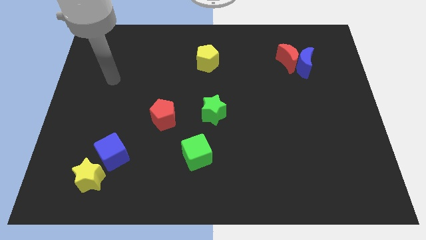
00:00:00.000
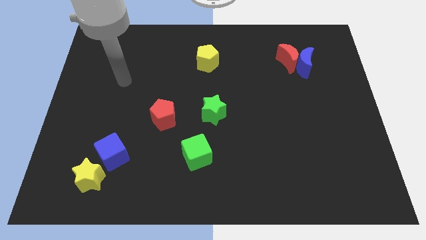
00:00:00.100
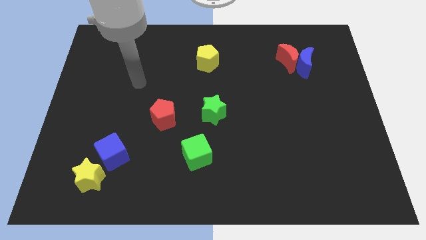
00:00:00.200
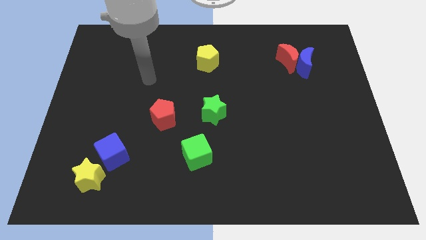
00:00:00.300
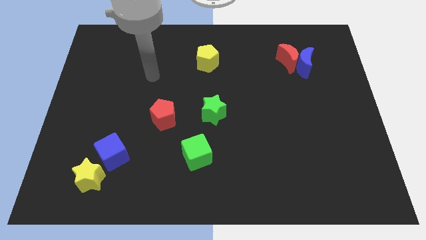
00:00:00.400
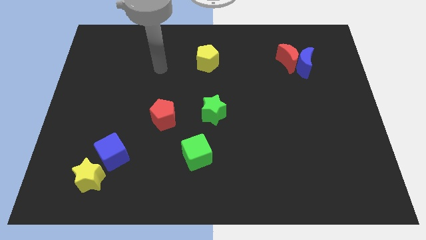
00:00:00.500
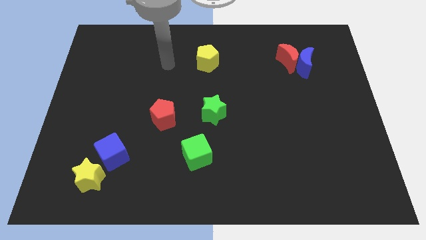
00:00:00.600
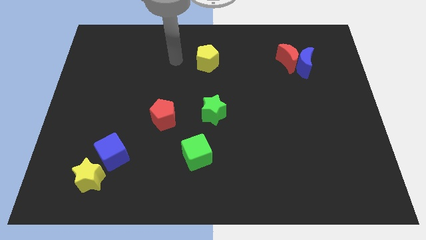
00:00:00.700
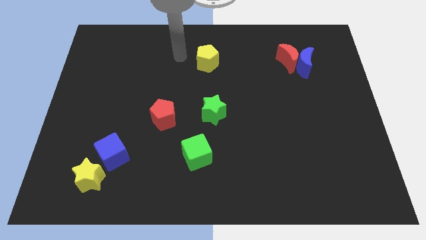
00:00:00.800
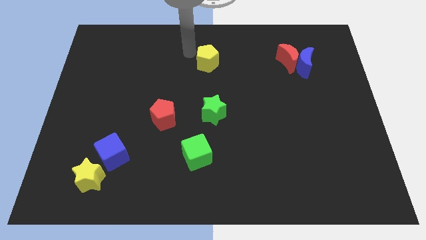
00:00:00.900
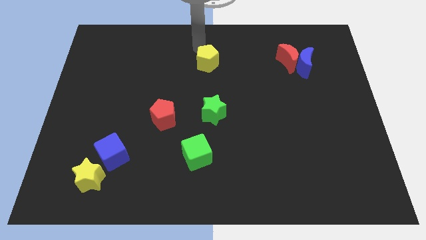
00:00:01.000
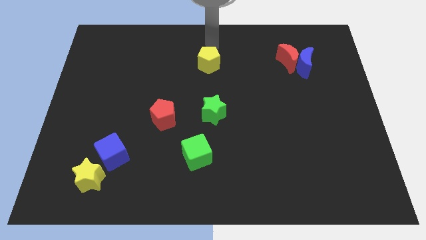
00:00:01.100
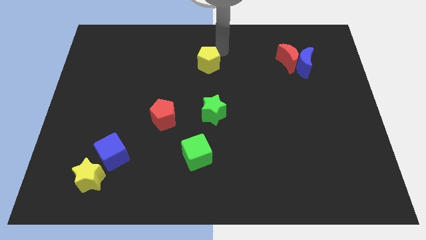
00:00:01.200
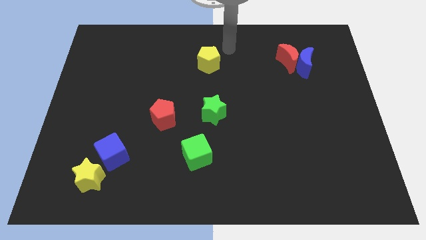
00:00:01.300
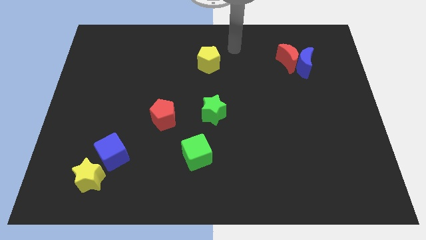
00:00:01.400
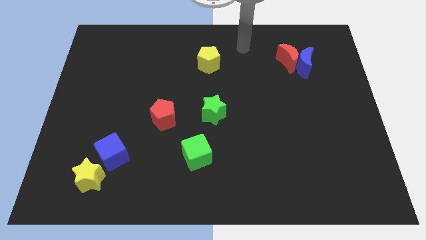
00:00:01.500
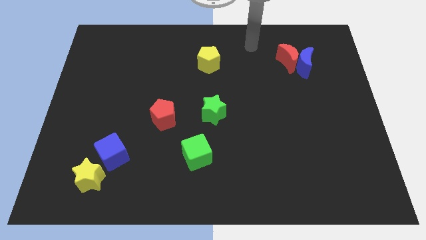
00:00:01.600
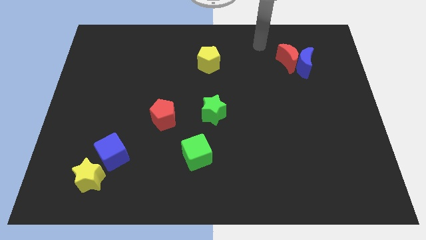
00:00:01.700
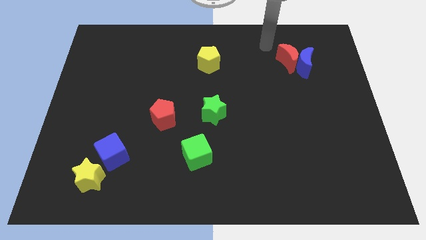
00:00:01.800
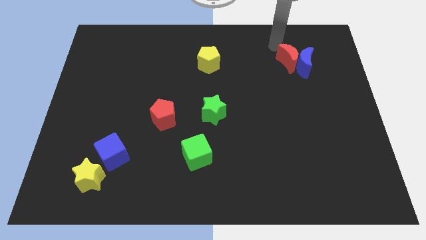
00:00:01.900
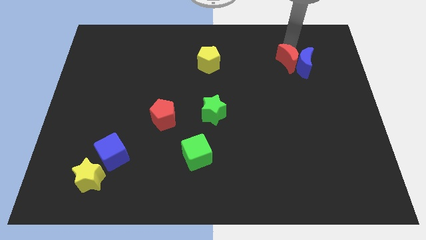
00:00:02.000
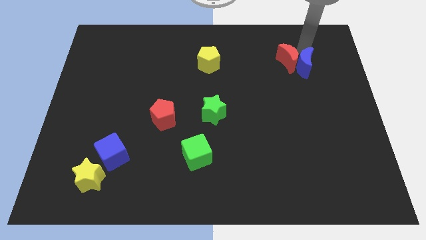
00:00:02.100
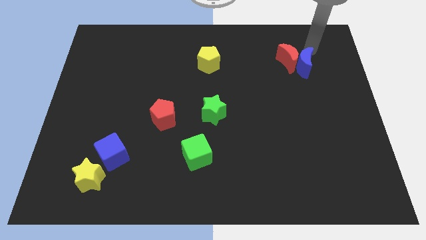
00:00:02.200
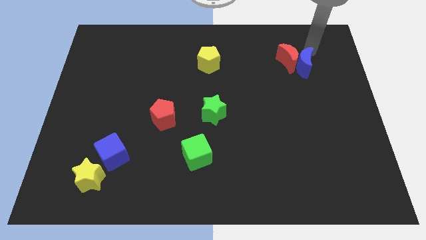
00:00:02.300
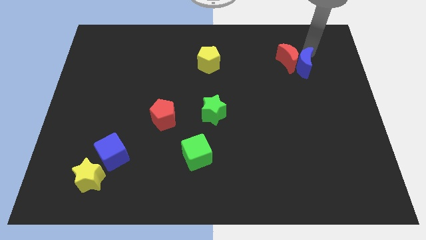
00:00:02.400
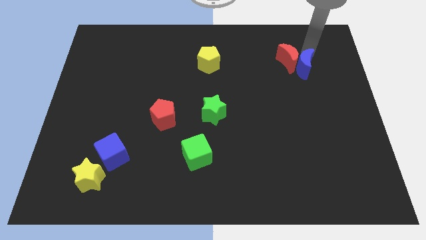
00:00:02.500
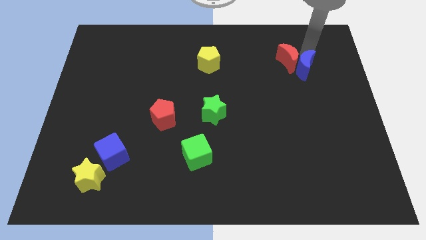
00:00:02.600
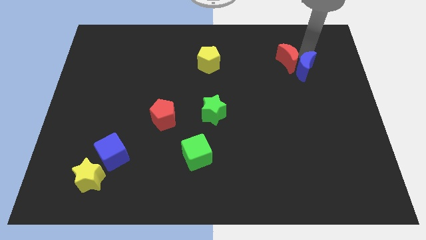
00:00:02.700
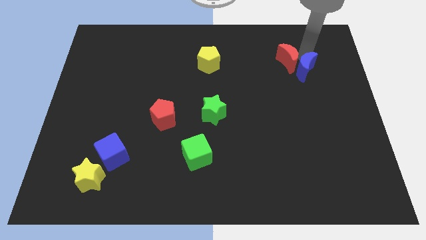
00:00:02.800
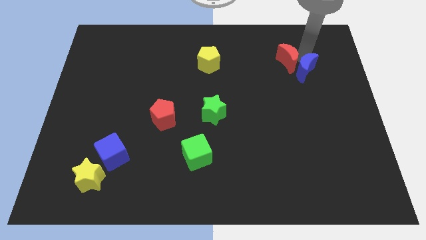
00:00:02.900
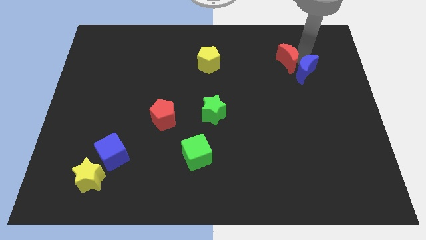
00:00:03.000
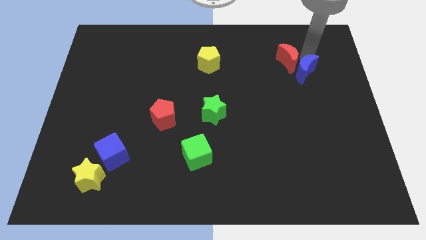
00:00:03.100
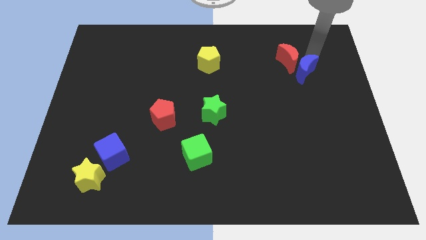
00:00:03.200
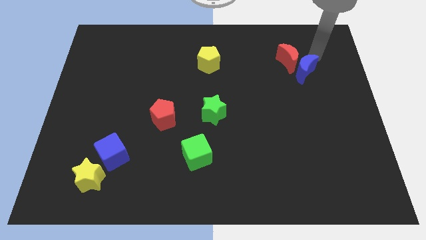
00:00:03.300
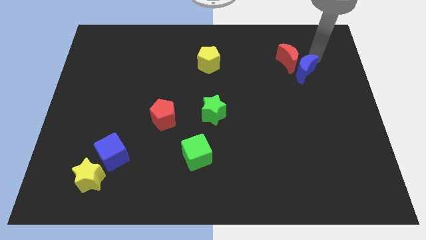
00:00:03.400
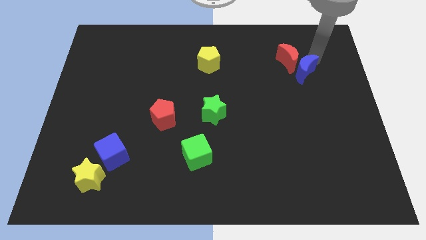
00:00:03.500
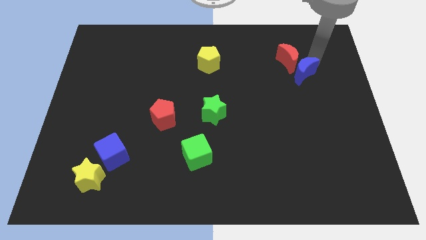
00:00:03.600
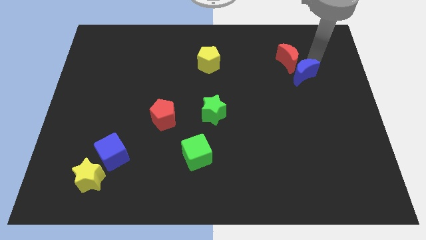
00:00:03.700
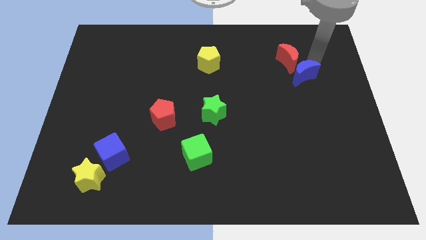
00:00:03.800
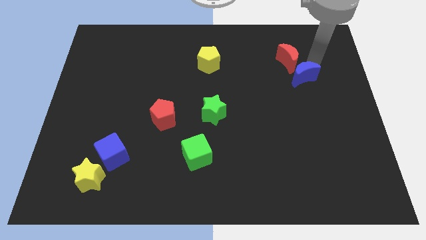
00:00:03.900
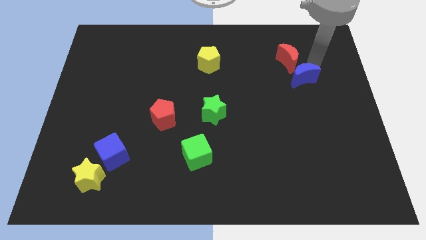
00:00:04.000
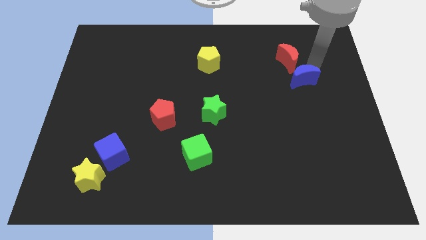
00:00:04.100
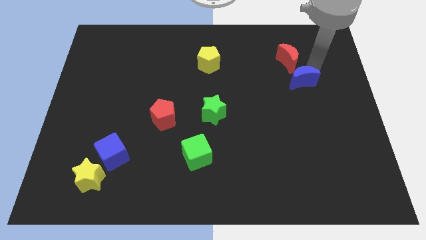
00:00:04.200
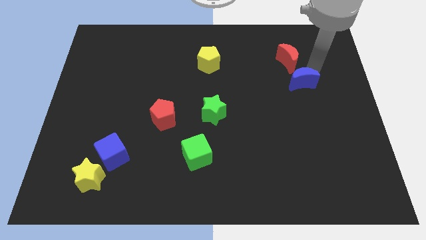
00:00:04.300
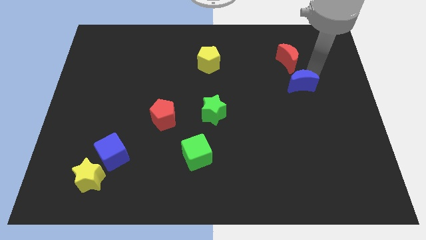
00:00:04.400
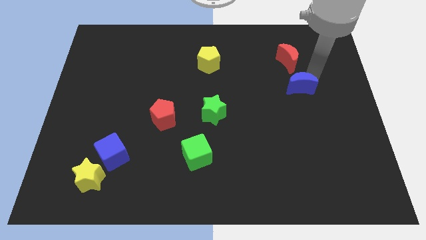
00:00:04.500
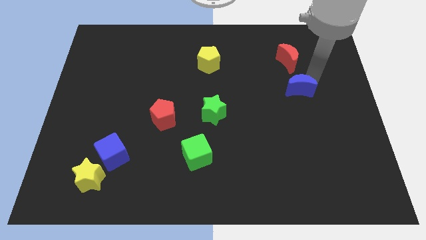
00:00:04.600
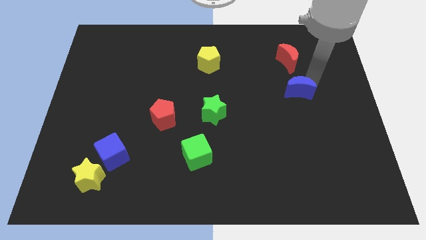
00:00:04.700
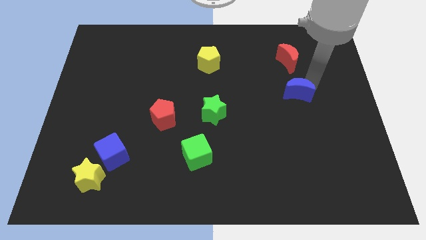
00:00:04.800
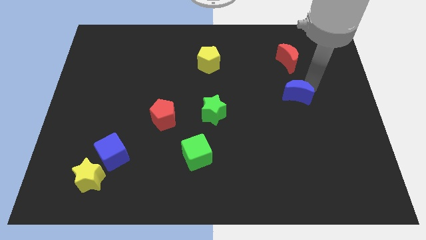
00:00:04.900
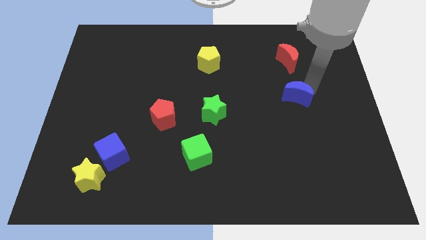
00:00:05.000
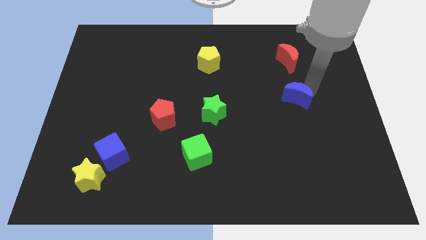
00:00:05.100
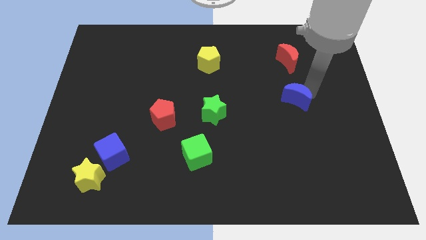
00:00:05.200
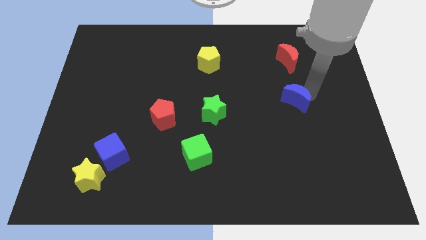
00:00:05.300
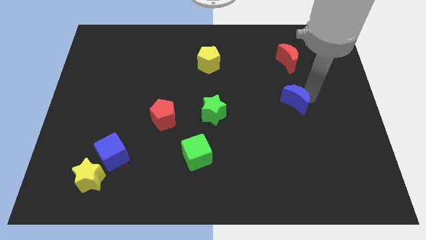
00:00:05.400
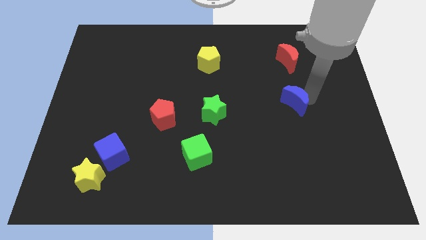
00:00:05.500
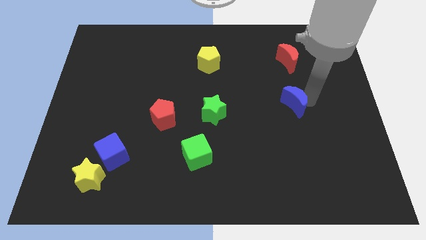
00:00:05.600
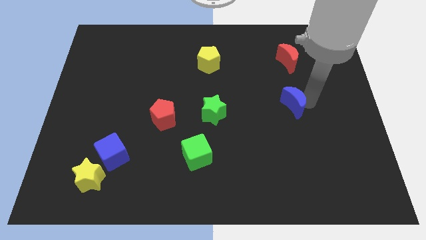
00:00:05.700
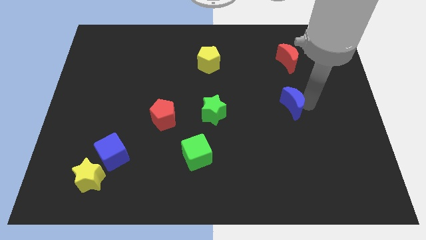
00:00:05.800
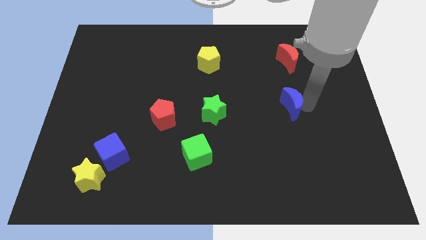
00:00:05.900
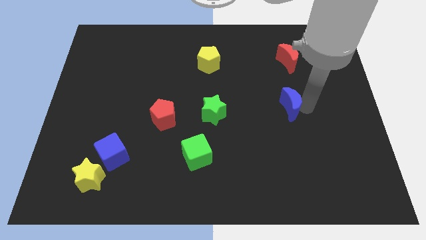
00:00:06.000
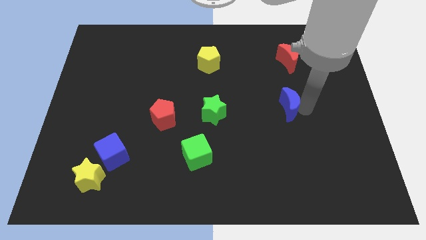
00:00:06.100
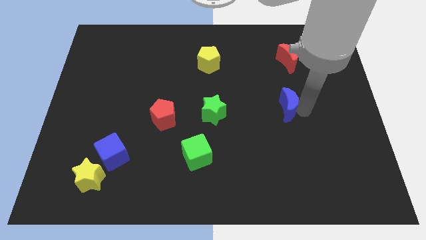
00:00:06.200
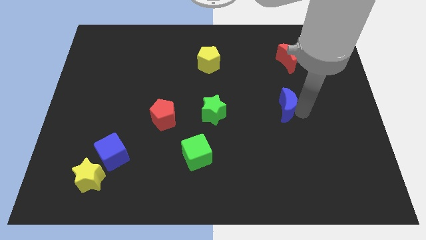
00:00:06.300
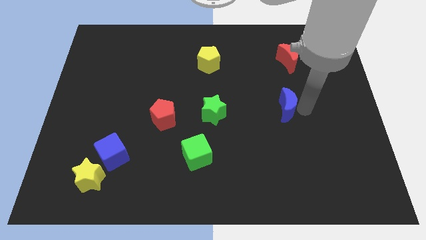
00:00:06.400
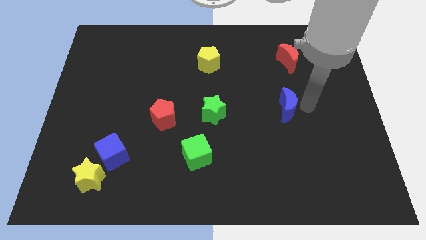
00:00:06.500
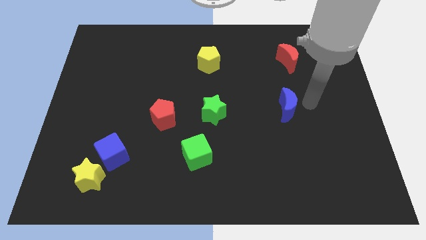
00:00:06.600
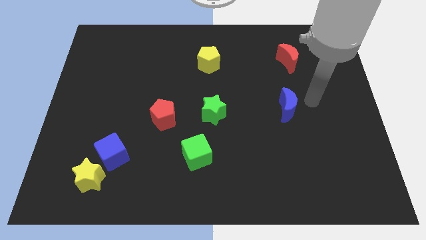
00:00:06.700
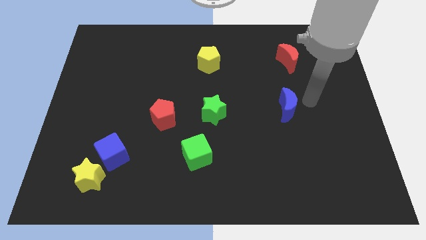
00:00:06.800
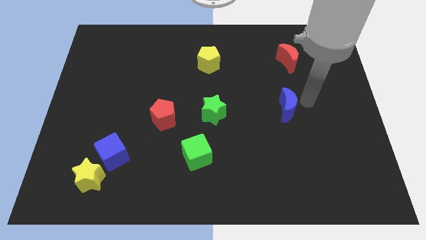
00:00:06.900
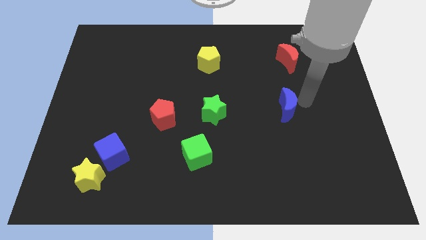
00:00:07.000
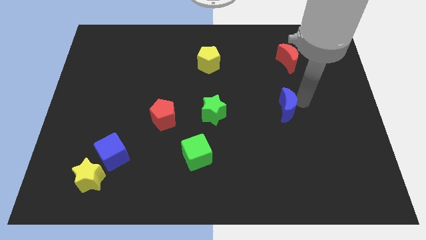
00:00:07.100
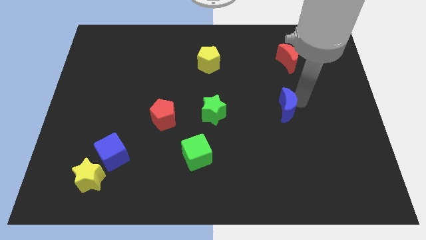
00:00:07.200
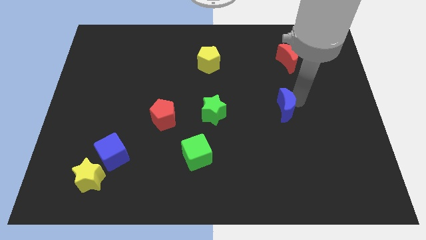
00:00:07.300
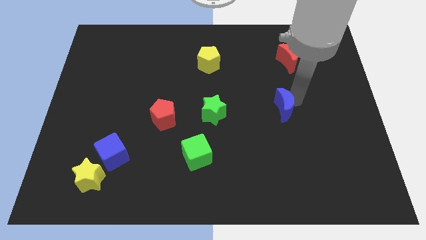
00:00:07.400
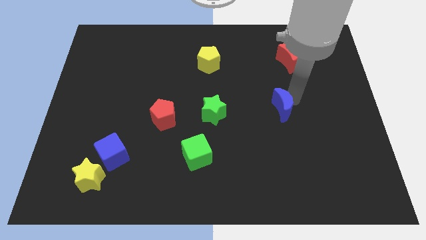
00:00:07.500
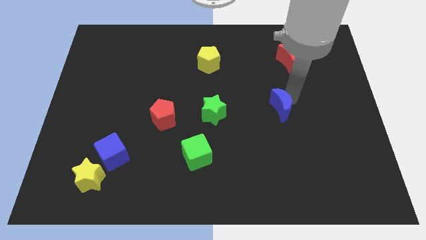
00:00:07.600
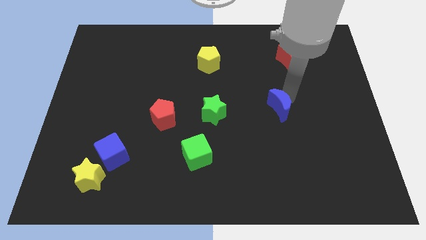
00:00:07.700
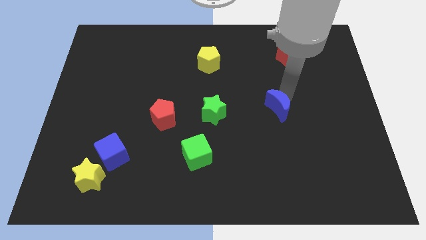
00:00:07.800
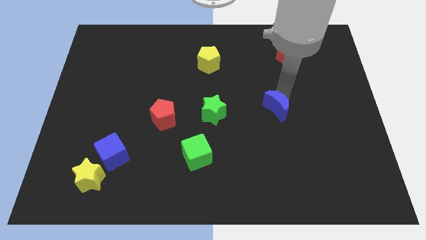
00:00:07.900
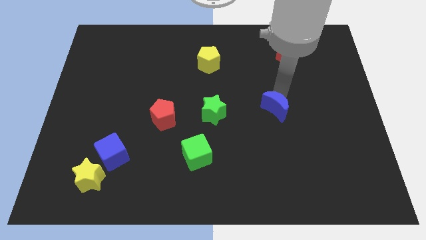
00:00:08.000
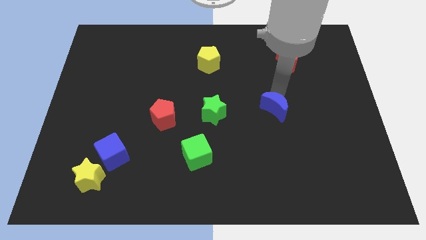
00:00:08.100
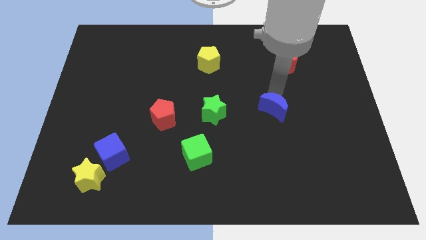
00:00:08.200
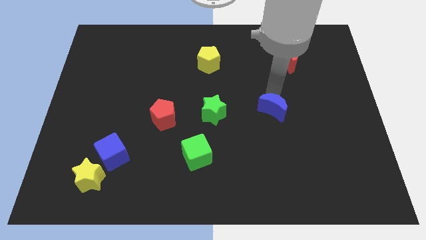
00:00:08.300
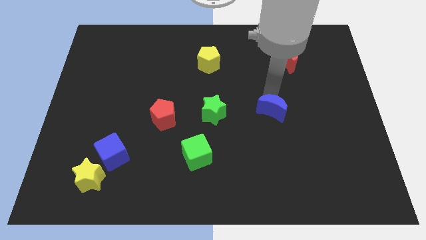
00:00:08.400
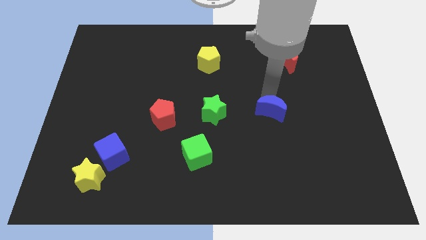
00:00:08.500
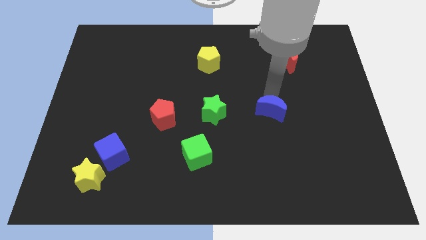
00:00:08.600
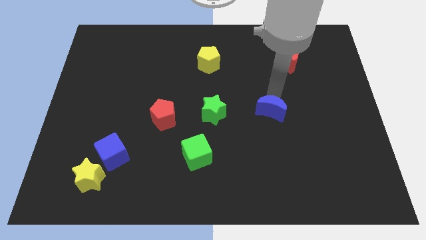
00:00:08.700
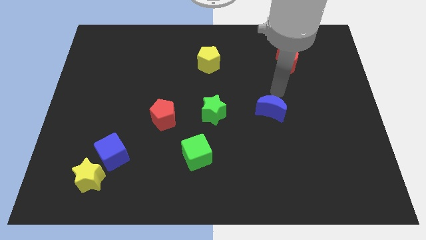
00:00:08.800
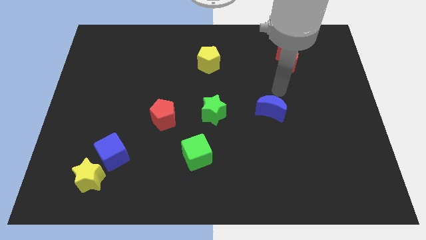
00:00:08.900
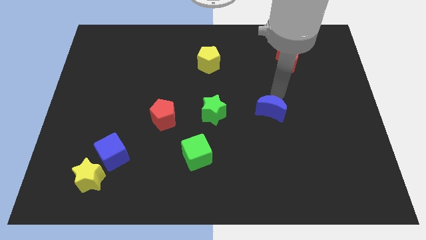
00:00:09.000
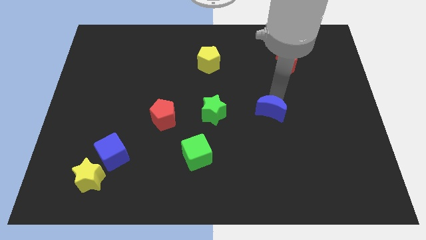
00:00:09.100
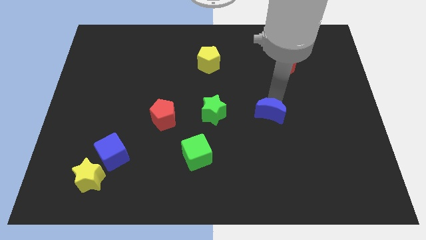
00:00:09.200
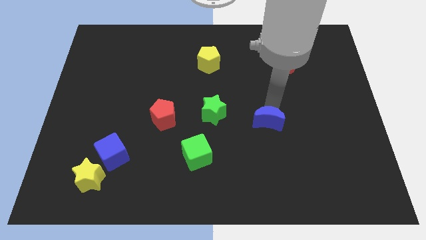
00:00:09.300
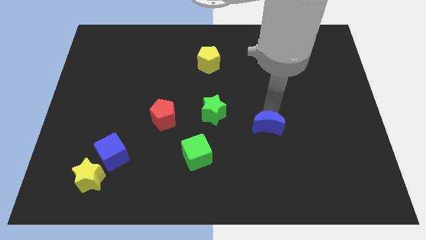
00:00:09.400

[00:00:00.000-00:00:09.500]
slide the blue moon downwards and to the left
